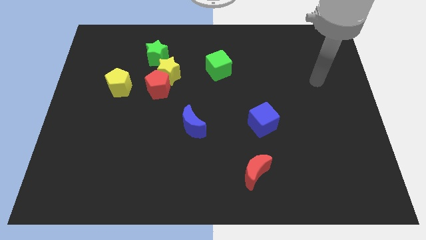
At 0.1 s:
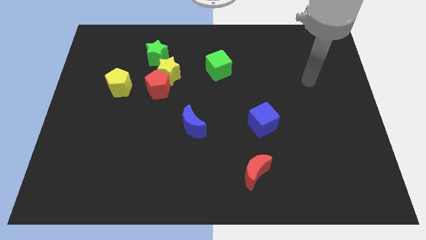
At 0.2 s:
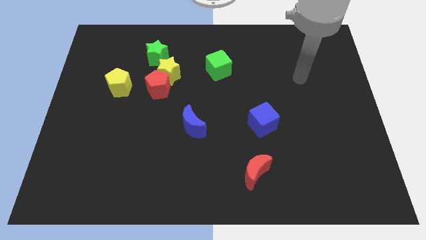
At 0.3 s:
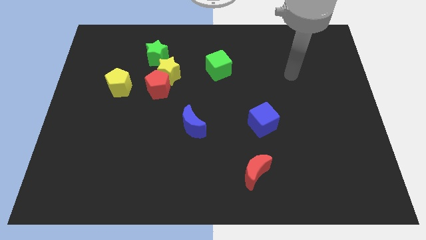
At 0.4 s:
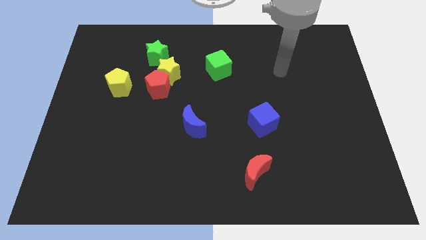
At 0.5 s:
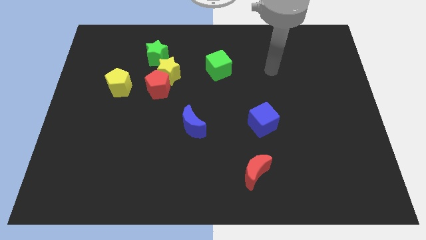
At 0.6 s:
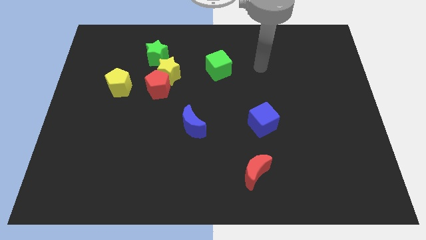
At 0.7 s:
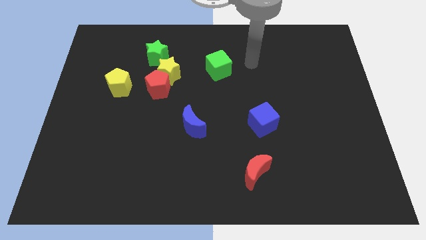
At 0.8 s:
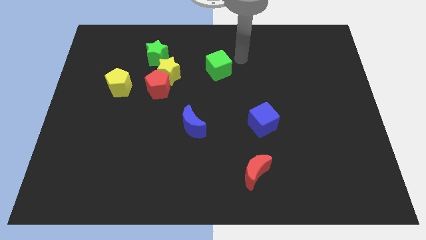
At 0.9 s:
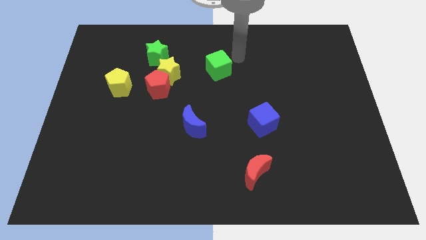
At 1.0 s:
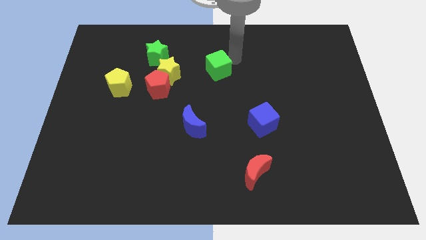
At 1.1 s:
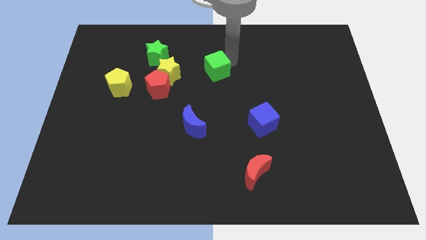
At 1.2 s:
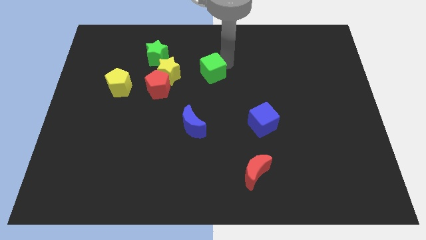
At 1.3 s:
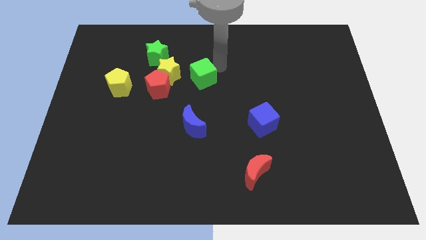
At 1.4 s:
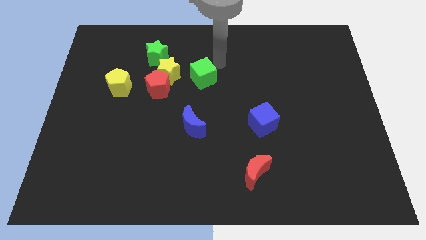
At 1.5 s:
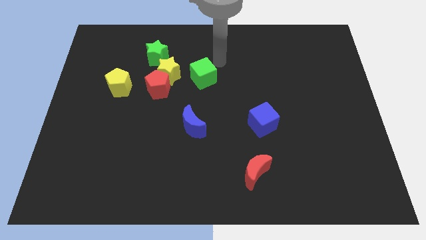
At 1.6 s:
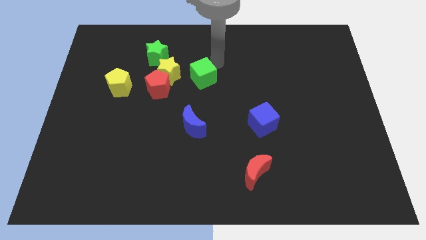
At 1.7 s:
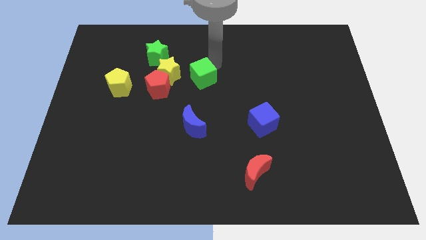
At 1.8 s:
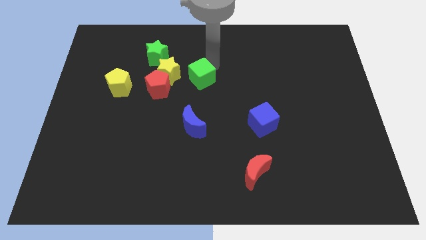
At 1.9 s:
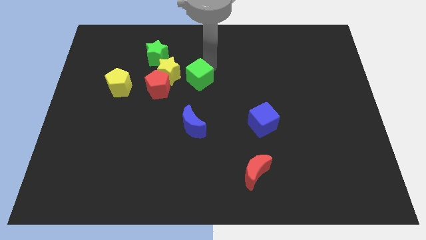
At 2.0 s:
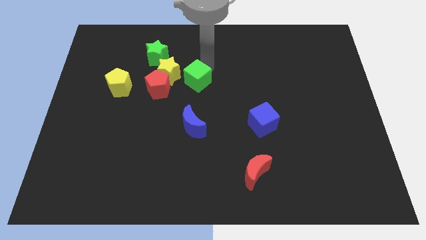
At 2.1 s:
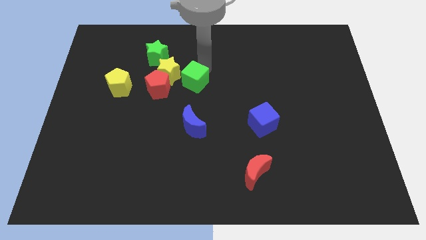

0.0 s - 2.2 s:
slide the green cube down and then to the left a bit

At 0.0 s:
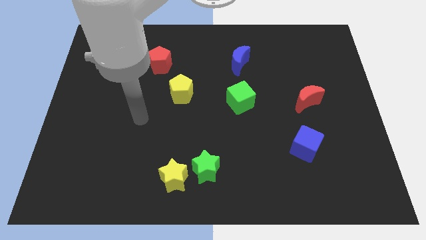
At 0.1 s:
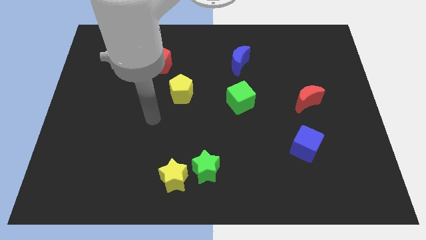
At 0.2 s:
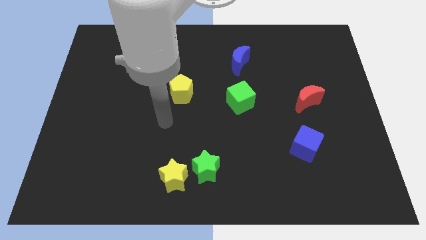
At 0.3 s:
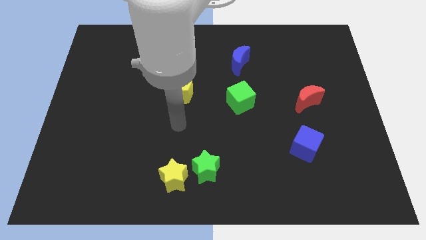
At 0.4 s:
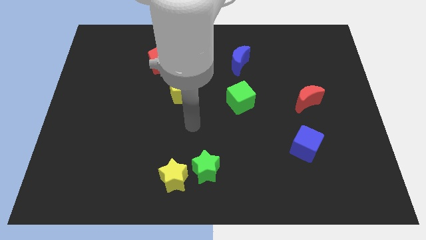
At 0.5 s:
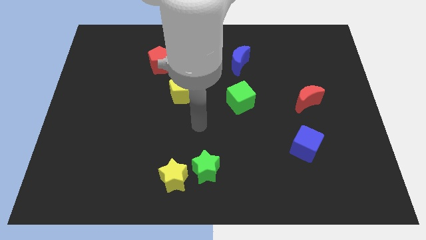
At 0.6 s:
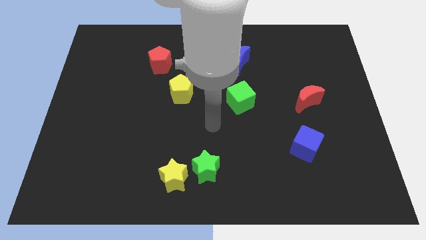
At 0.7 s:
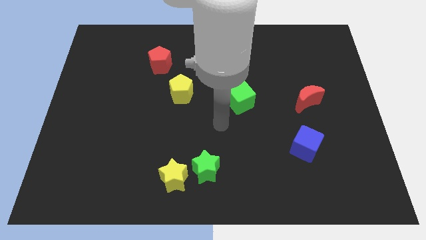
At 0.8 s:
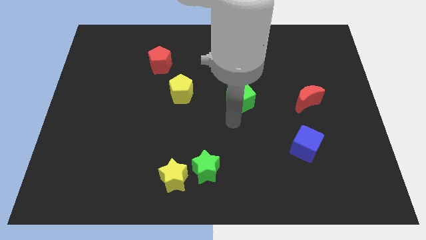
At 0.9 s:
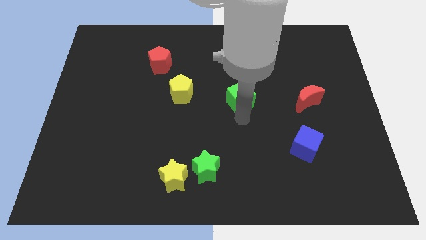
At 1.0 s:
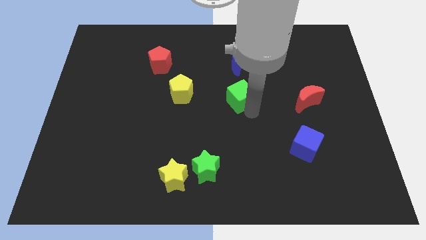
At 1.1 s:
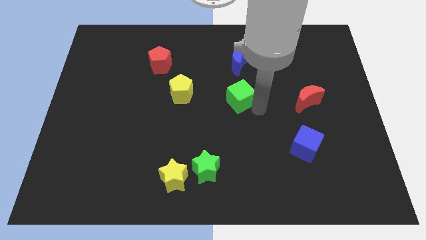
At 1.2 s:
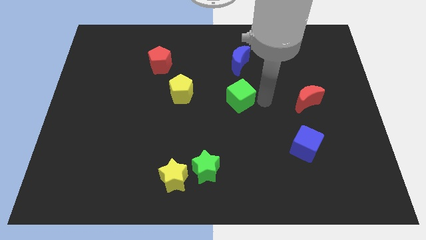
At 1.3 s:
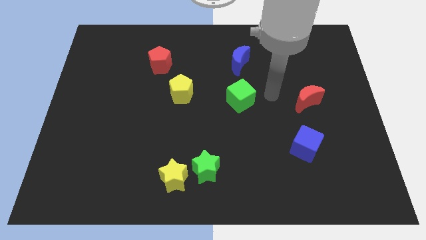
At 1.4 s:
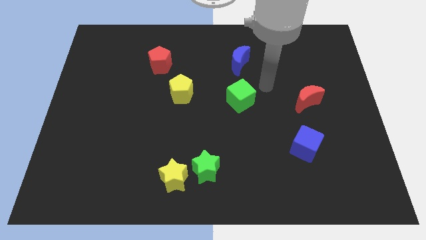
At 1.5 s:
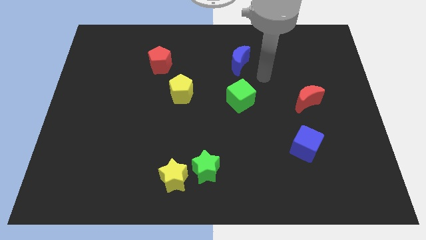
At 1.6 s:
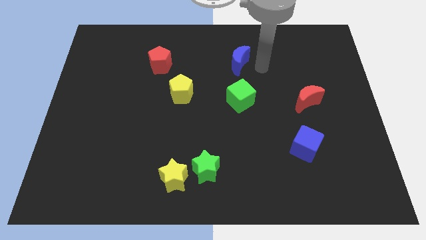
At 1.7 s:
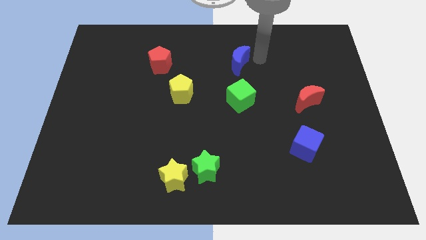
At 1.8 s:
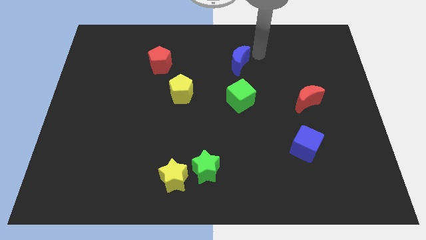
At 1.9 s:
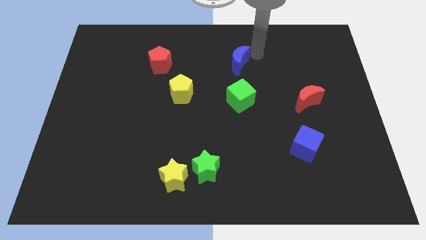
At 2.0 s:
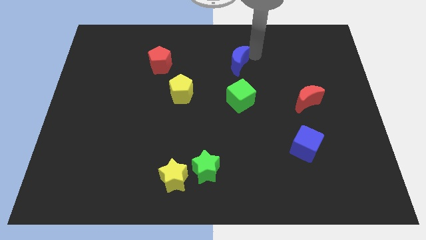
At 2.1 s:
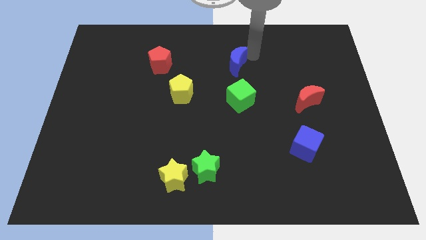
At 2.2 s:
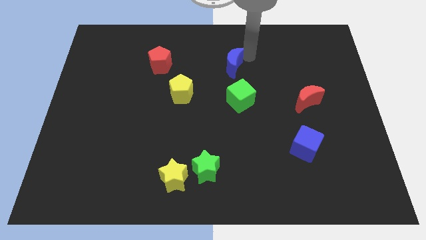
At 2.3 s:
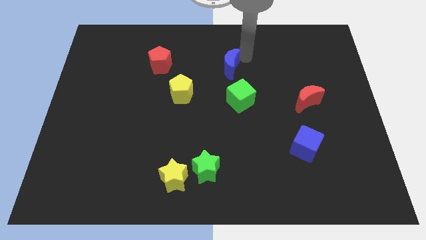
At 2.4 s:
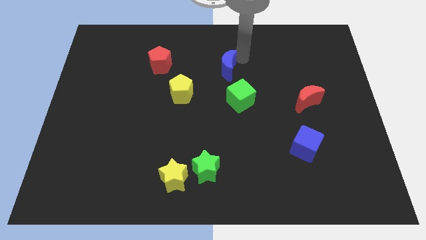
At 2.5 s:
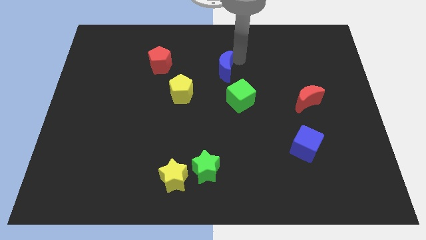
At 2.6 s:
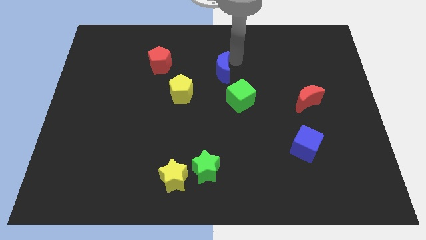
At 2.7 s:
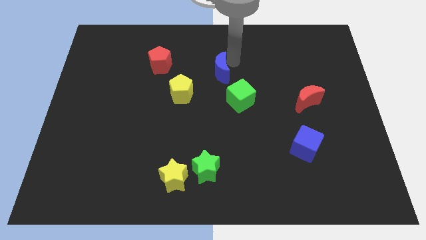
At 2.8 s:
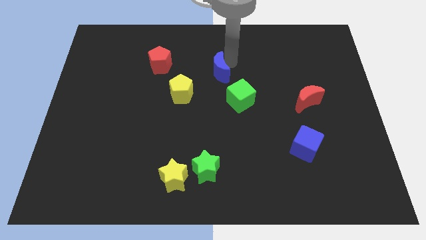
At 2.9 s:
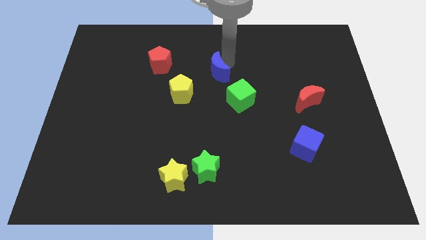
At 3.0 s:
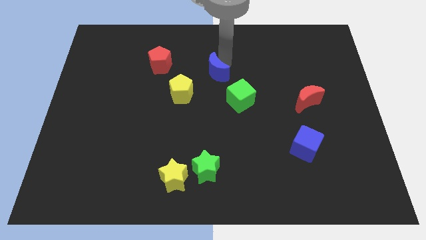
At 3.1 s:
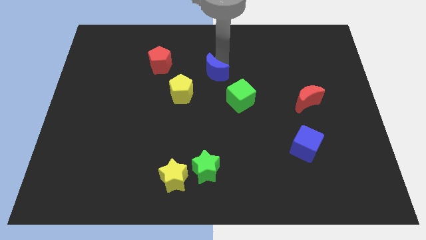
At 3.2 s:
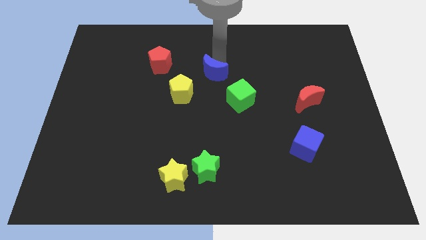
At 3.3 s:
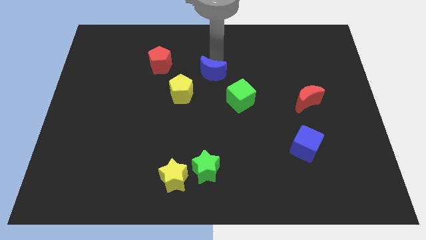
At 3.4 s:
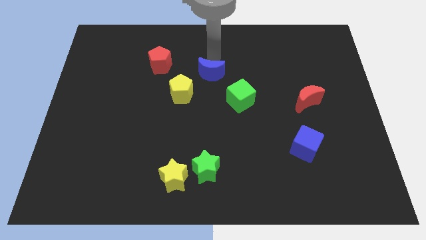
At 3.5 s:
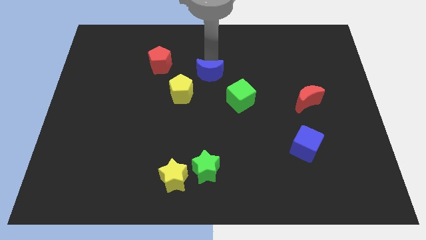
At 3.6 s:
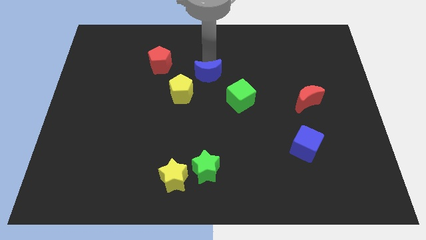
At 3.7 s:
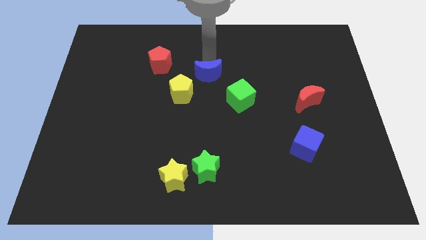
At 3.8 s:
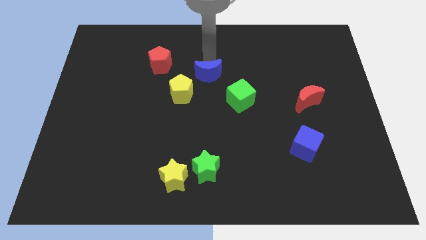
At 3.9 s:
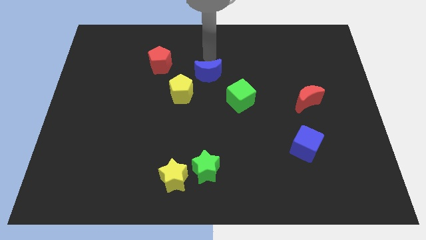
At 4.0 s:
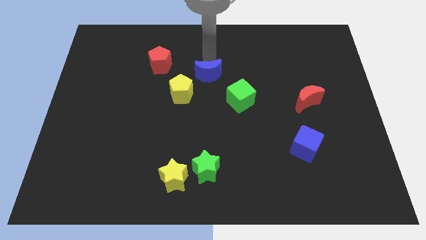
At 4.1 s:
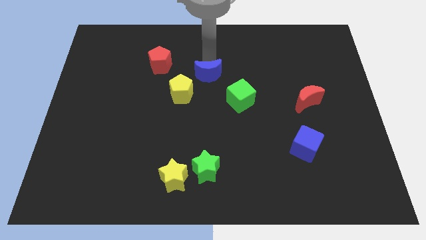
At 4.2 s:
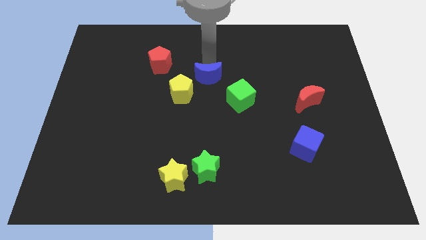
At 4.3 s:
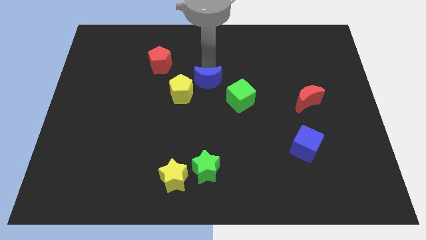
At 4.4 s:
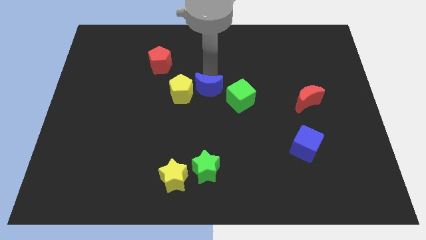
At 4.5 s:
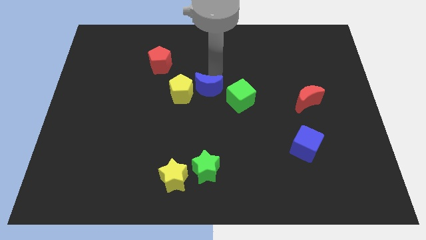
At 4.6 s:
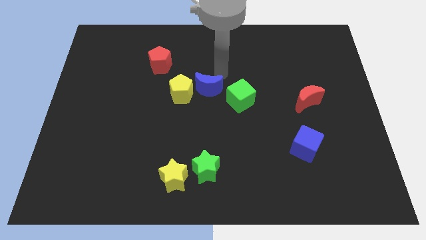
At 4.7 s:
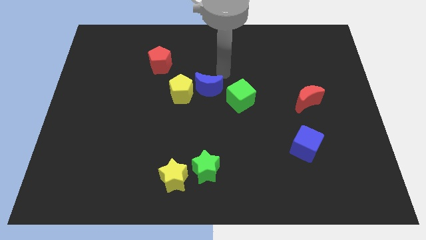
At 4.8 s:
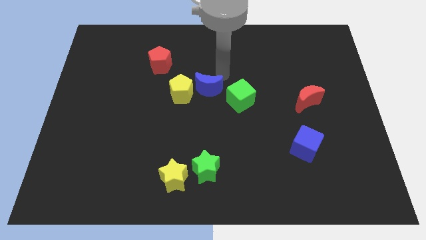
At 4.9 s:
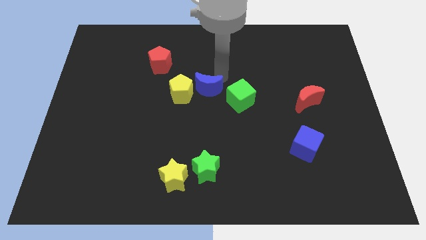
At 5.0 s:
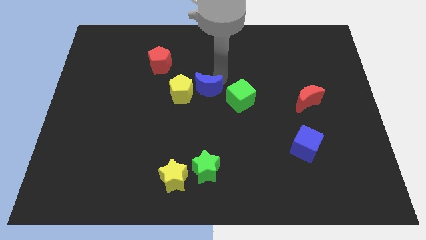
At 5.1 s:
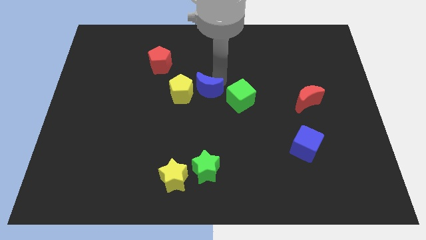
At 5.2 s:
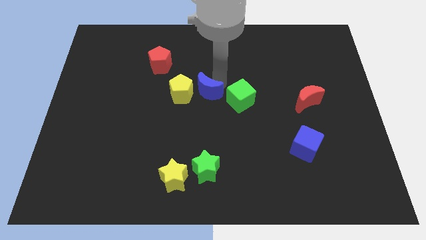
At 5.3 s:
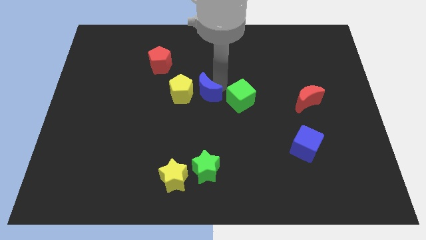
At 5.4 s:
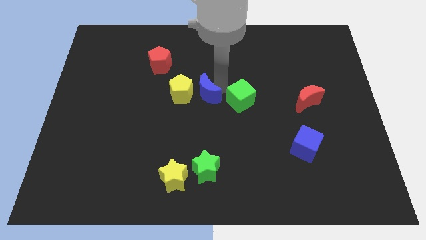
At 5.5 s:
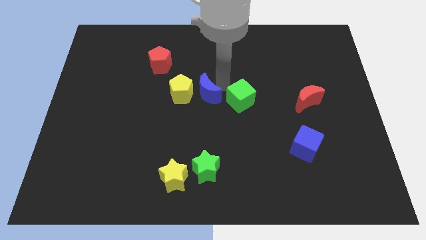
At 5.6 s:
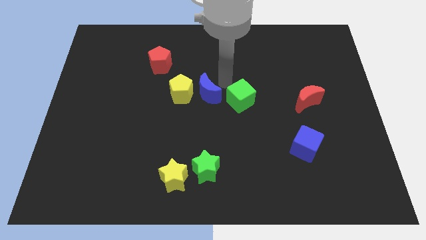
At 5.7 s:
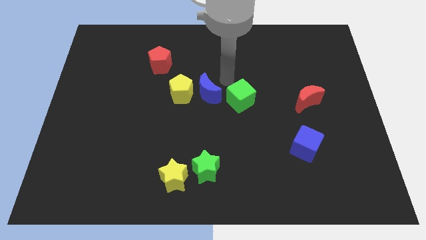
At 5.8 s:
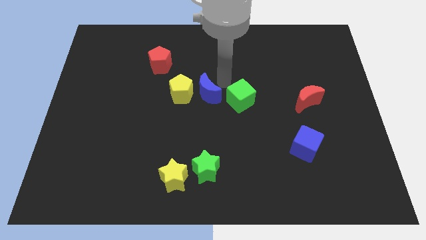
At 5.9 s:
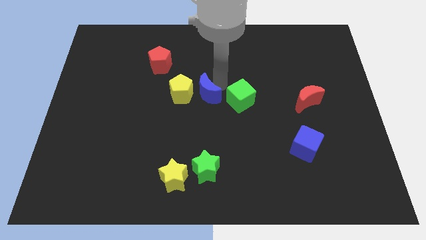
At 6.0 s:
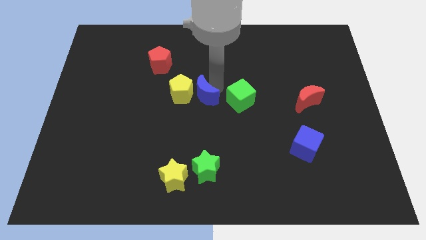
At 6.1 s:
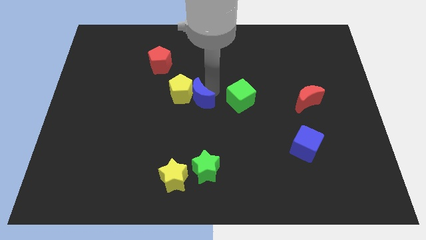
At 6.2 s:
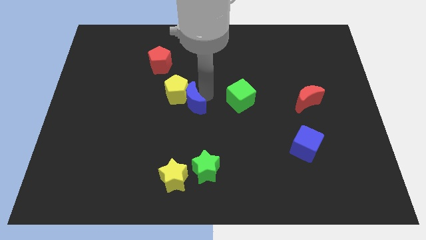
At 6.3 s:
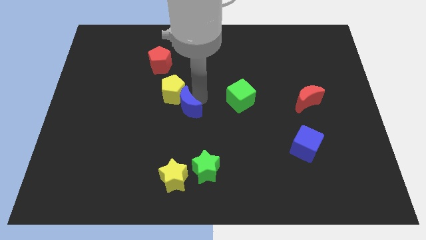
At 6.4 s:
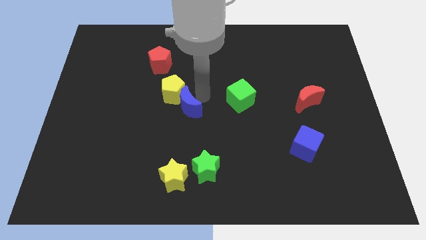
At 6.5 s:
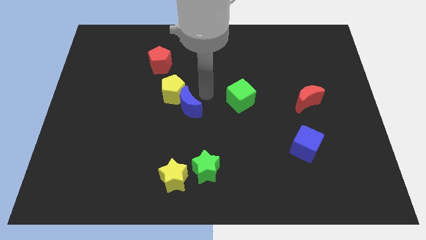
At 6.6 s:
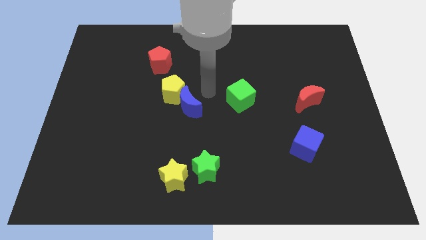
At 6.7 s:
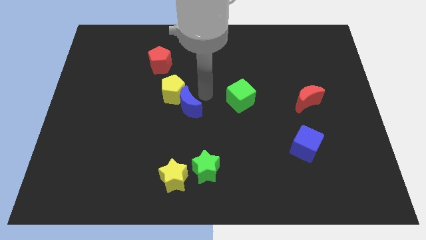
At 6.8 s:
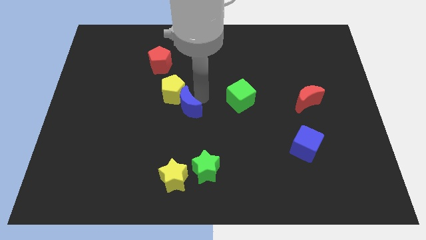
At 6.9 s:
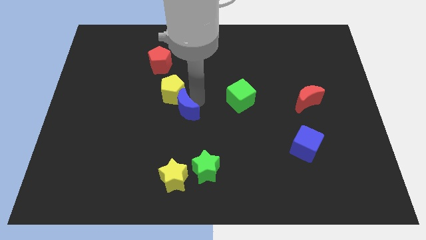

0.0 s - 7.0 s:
slide the blue moon diagonally downwards and to the left
